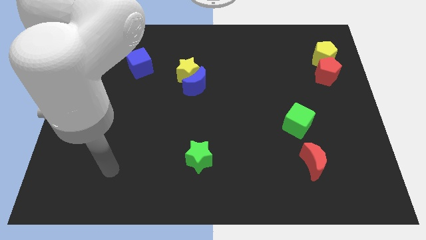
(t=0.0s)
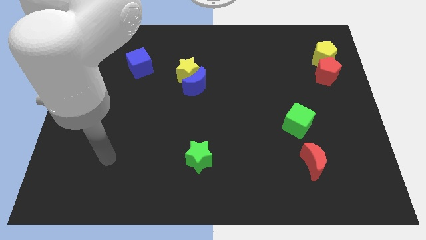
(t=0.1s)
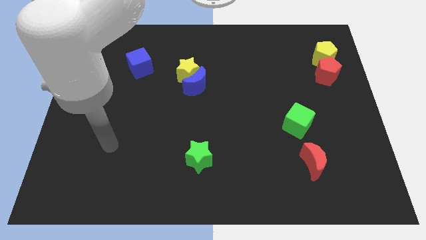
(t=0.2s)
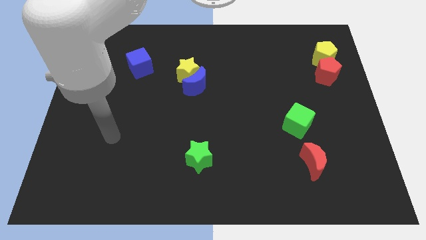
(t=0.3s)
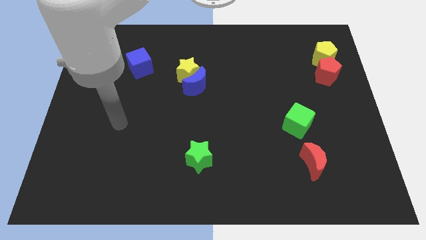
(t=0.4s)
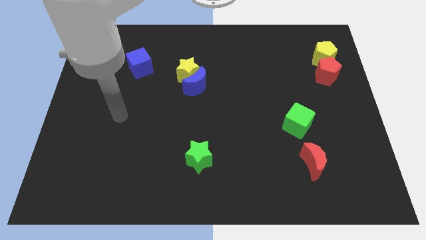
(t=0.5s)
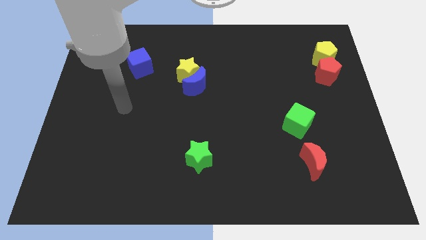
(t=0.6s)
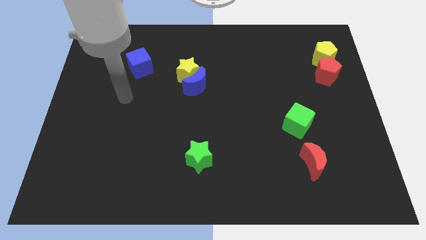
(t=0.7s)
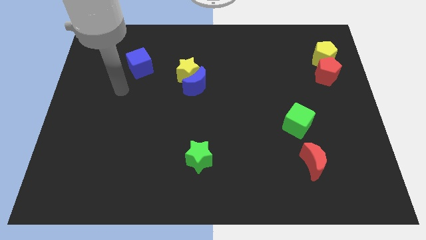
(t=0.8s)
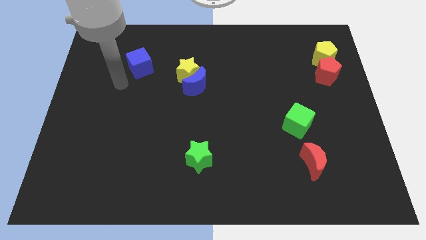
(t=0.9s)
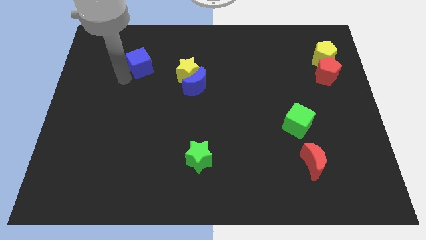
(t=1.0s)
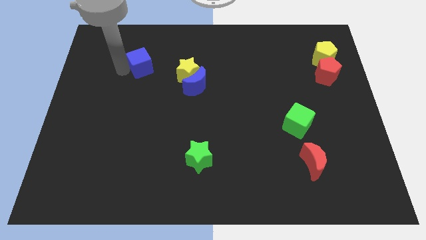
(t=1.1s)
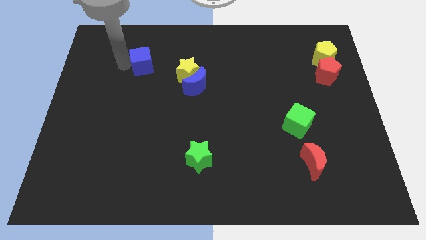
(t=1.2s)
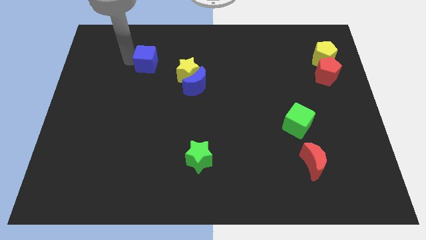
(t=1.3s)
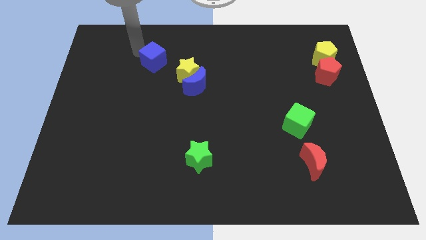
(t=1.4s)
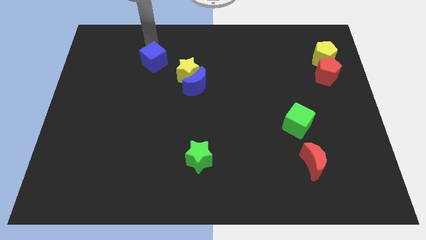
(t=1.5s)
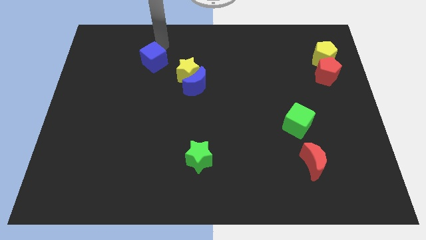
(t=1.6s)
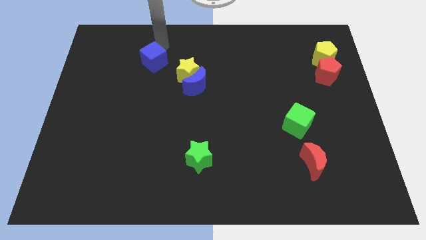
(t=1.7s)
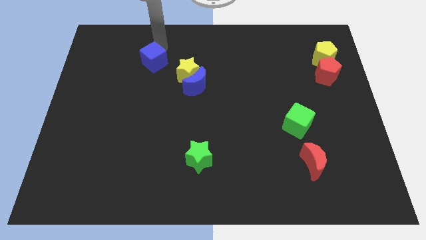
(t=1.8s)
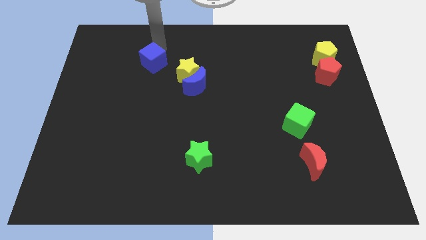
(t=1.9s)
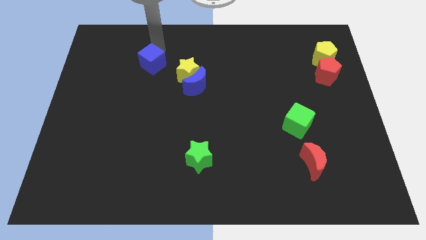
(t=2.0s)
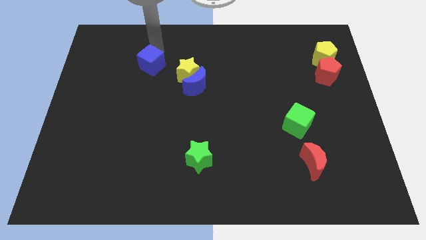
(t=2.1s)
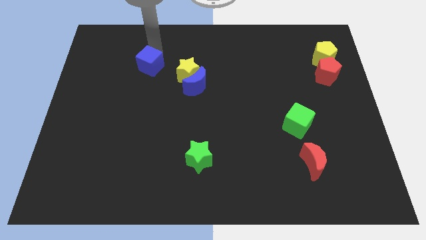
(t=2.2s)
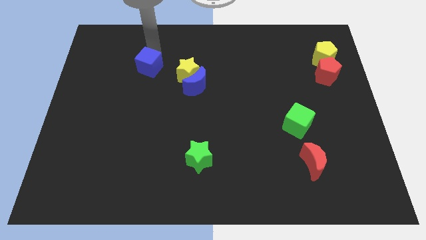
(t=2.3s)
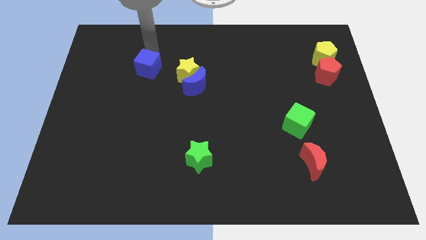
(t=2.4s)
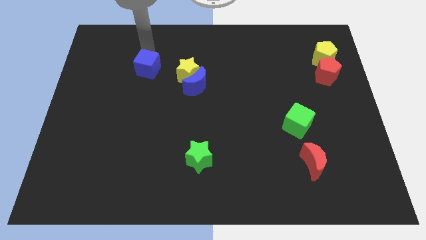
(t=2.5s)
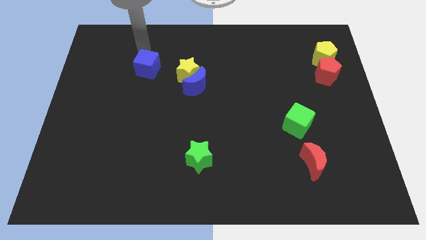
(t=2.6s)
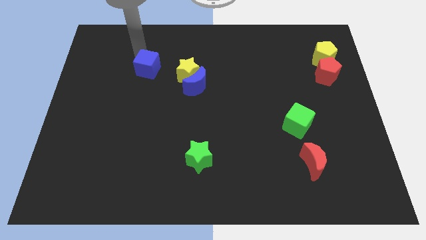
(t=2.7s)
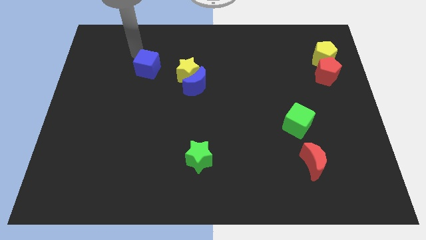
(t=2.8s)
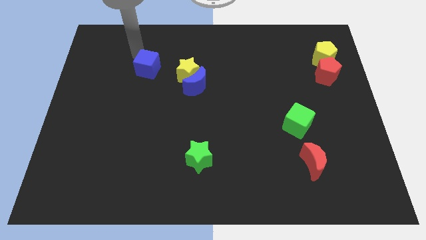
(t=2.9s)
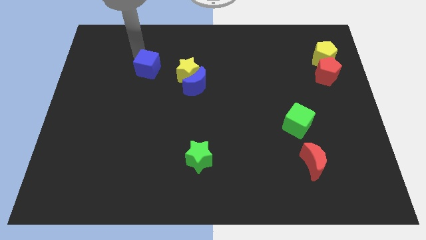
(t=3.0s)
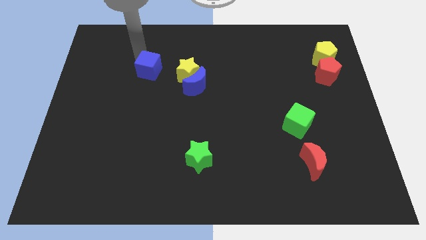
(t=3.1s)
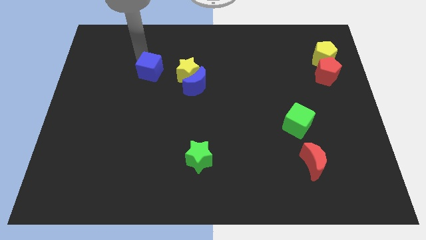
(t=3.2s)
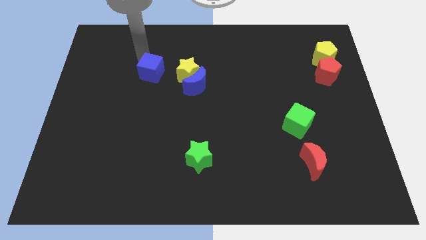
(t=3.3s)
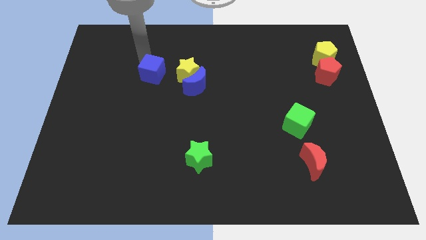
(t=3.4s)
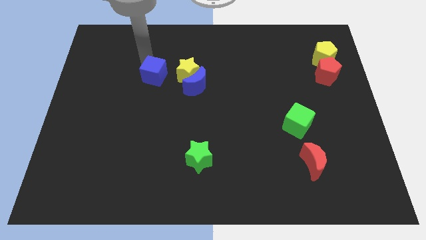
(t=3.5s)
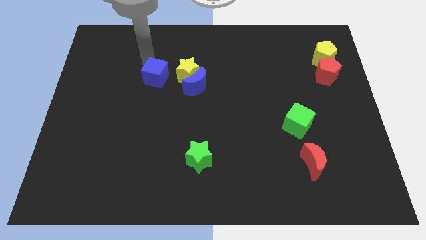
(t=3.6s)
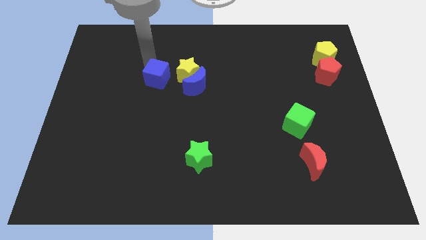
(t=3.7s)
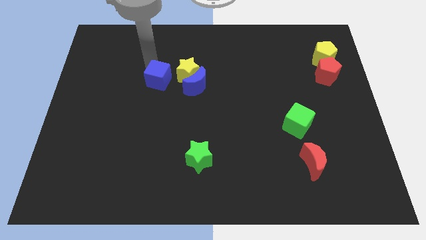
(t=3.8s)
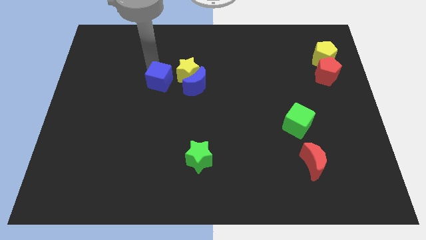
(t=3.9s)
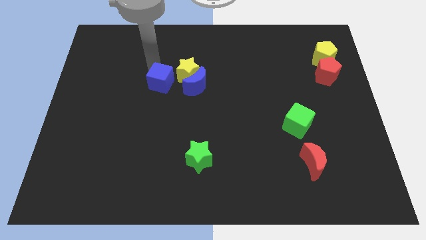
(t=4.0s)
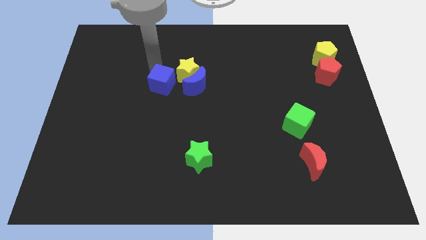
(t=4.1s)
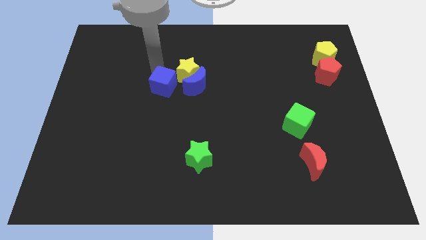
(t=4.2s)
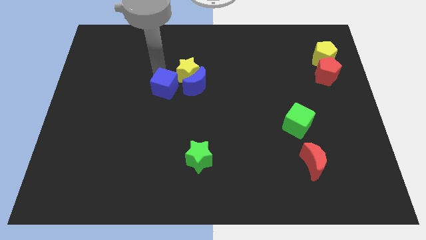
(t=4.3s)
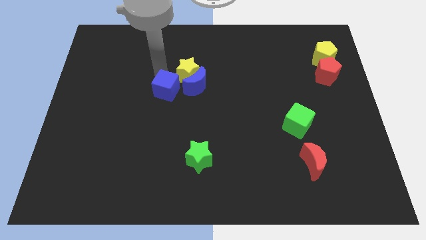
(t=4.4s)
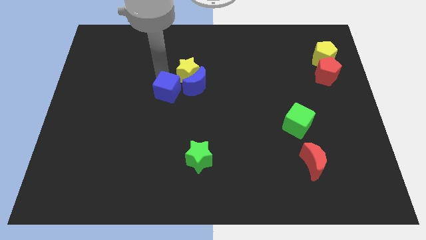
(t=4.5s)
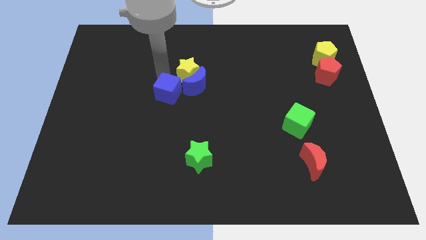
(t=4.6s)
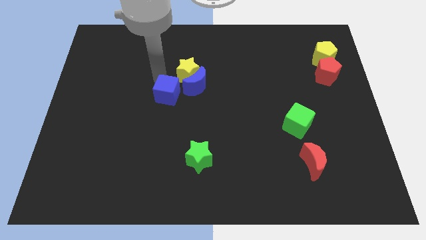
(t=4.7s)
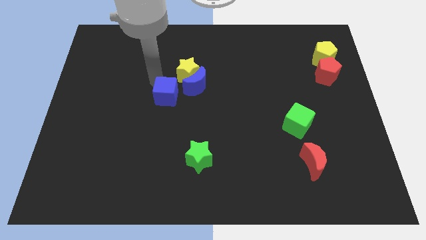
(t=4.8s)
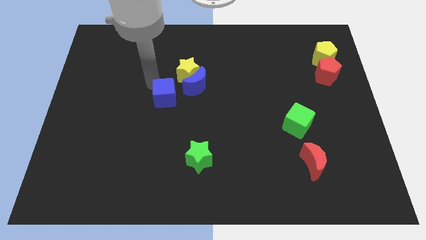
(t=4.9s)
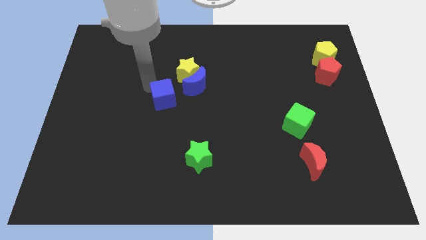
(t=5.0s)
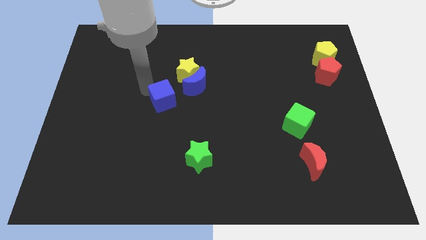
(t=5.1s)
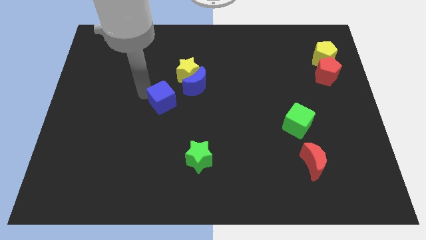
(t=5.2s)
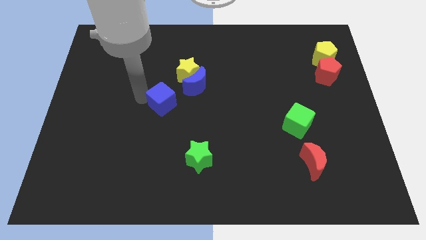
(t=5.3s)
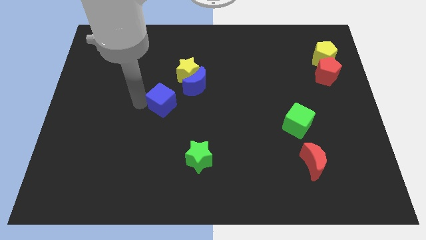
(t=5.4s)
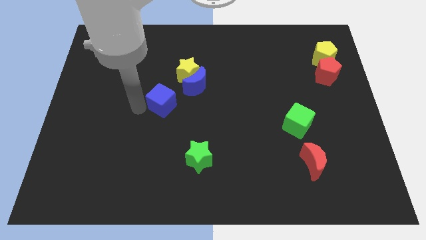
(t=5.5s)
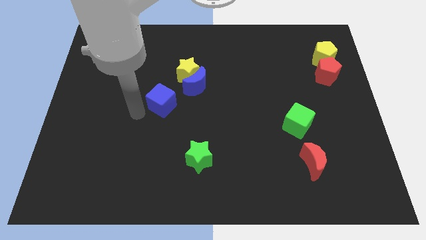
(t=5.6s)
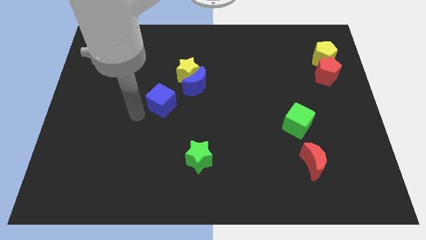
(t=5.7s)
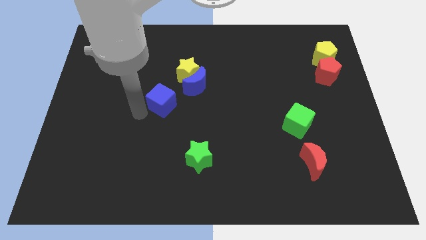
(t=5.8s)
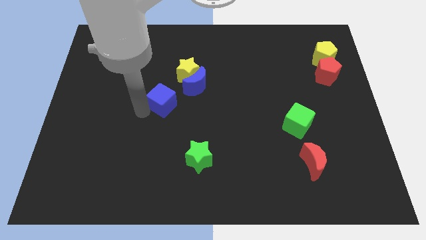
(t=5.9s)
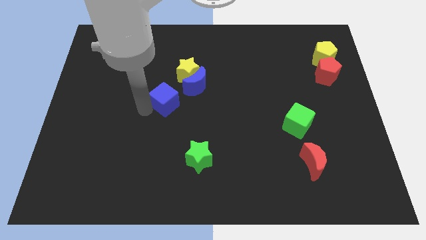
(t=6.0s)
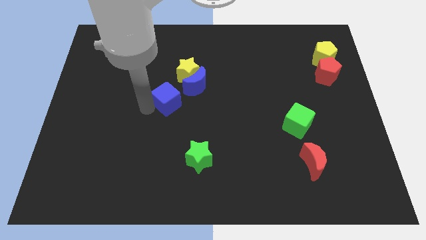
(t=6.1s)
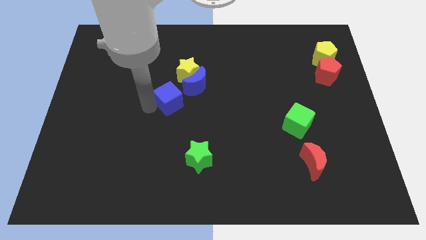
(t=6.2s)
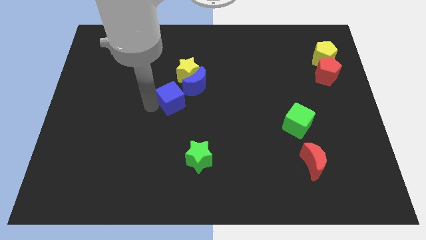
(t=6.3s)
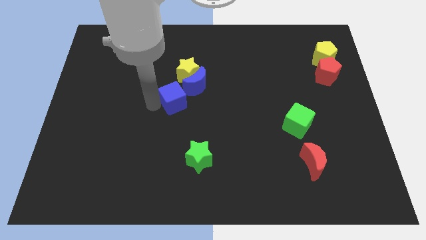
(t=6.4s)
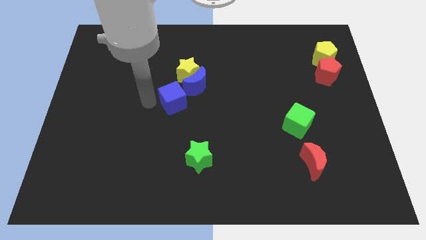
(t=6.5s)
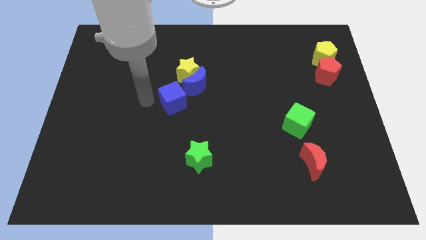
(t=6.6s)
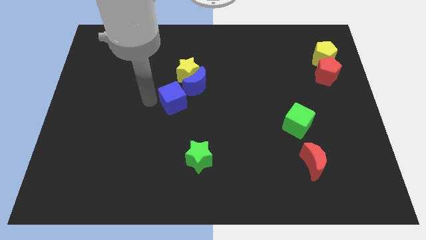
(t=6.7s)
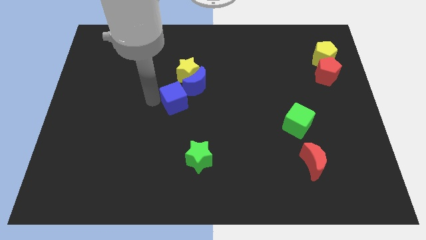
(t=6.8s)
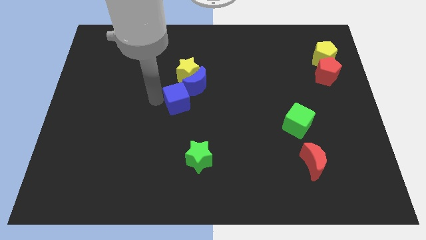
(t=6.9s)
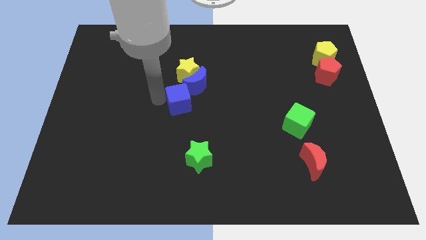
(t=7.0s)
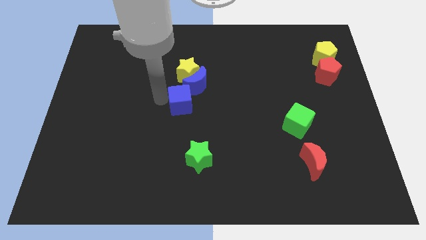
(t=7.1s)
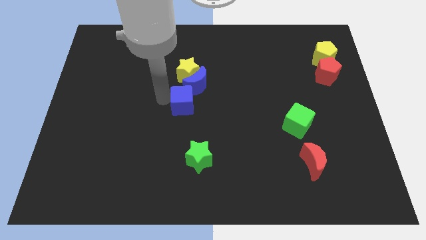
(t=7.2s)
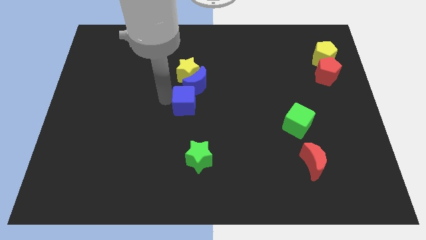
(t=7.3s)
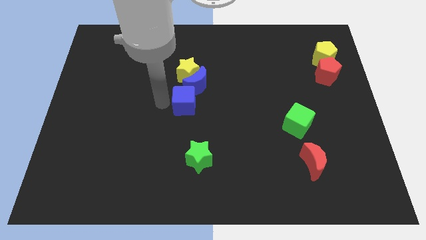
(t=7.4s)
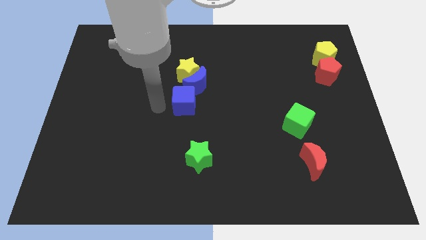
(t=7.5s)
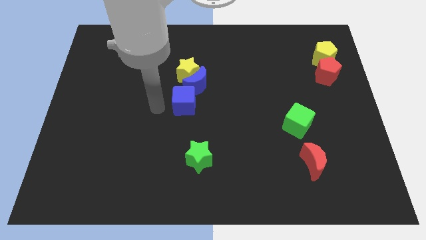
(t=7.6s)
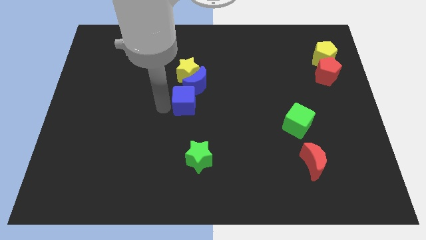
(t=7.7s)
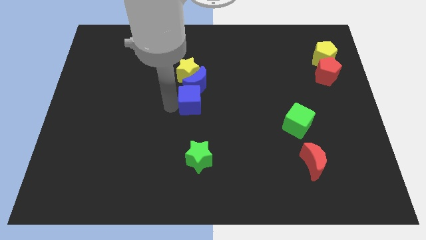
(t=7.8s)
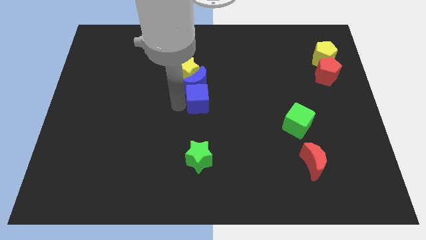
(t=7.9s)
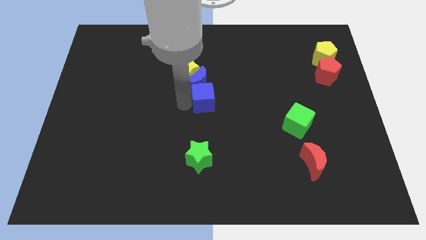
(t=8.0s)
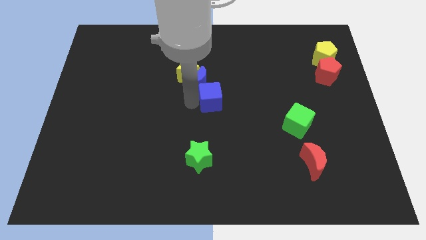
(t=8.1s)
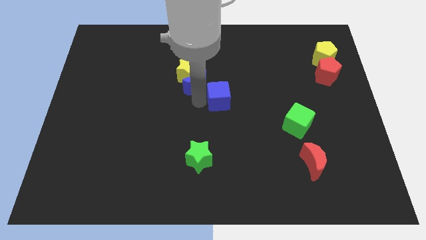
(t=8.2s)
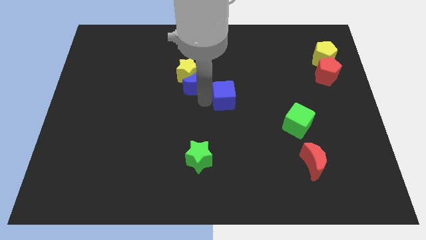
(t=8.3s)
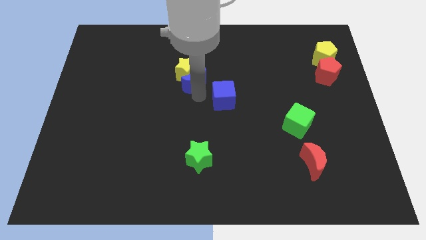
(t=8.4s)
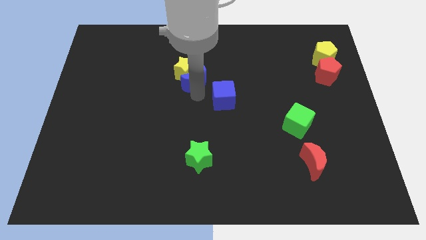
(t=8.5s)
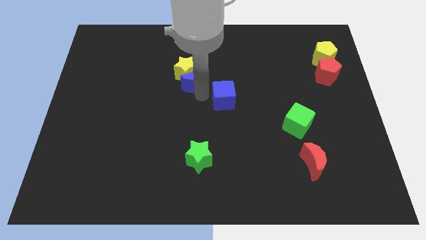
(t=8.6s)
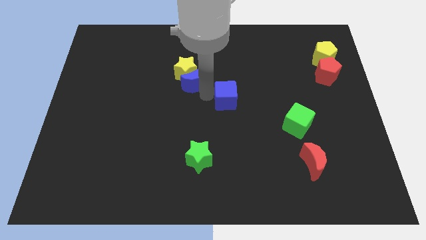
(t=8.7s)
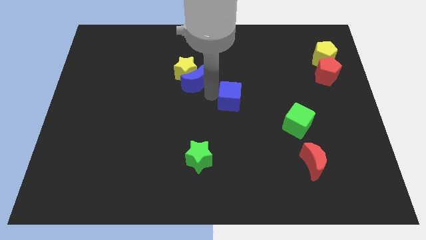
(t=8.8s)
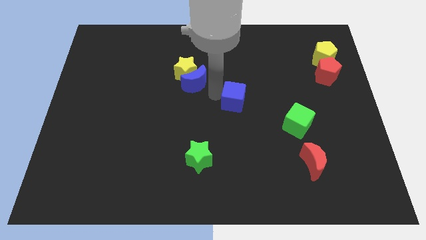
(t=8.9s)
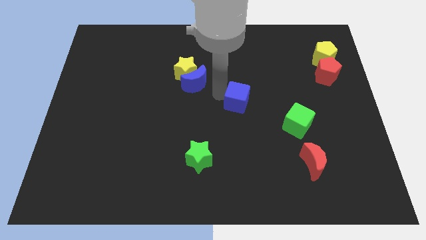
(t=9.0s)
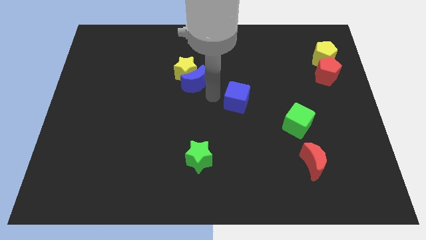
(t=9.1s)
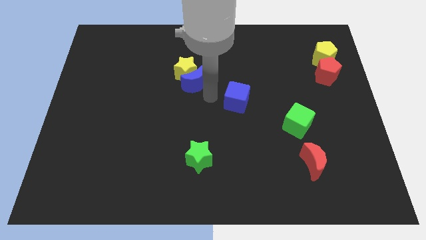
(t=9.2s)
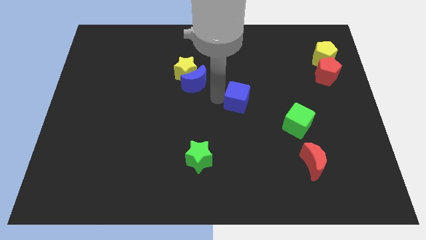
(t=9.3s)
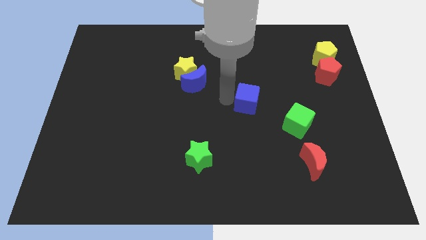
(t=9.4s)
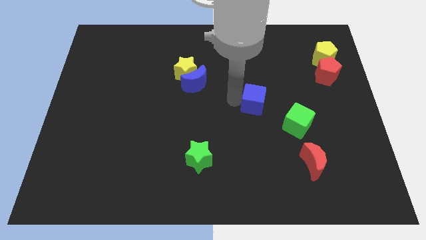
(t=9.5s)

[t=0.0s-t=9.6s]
push the blue cube diagonally up and to the left of the green cube
